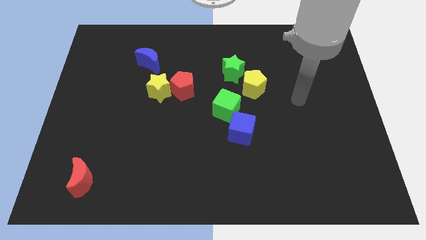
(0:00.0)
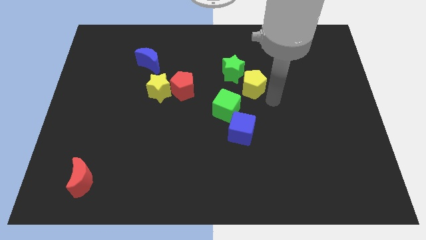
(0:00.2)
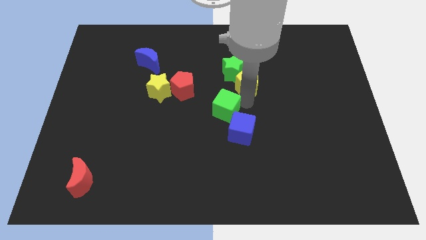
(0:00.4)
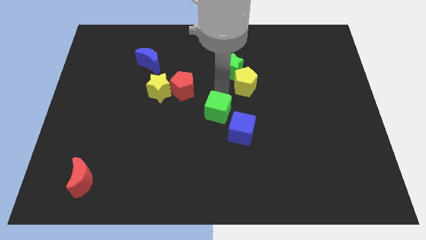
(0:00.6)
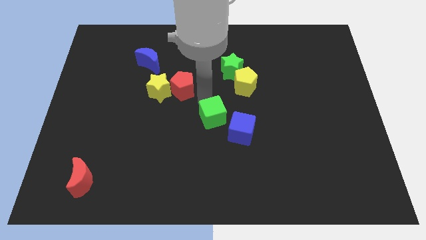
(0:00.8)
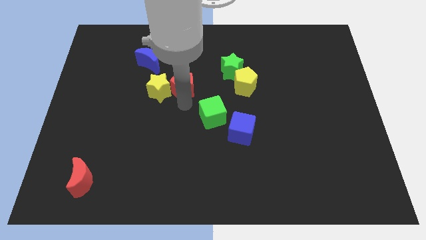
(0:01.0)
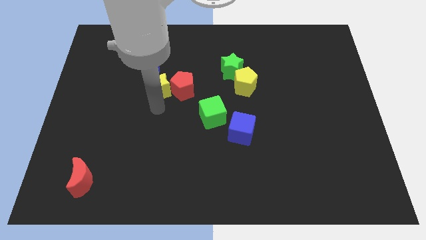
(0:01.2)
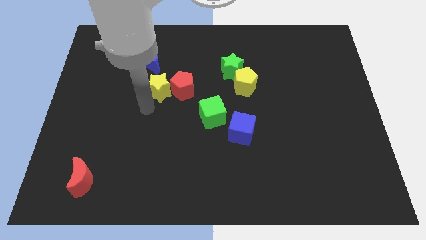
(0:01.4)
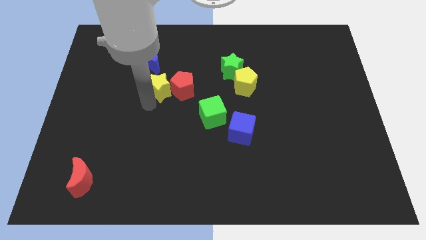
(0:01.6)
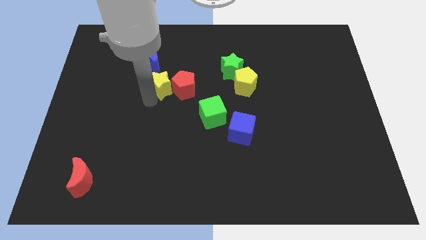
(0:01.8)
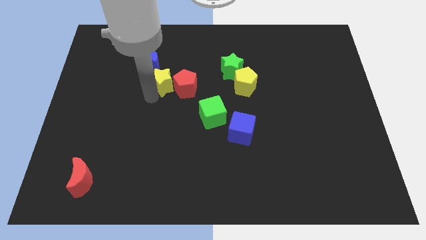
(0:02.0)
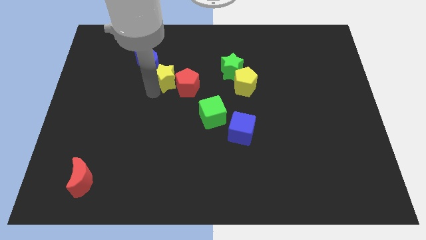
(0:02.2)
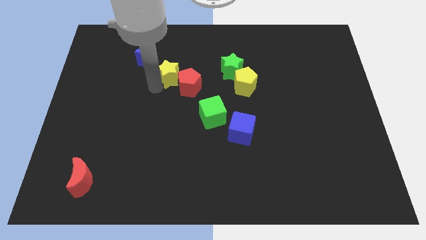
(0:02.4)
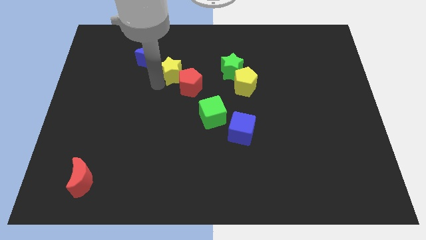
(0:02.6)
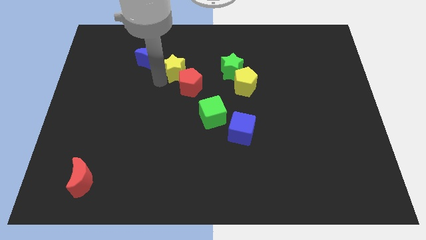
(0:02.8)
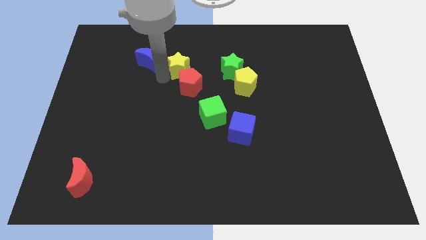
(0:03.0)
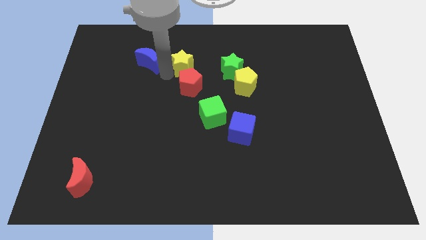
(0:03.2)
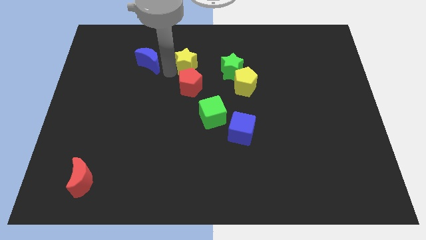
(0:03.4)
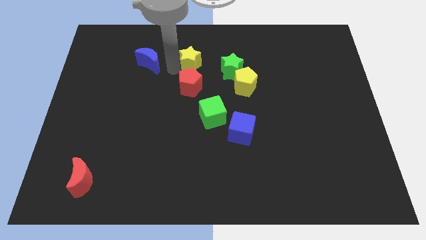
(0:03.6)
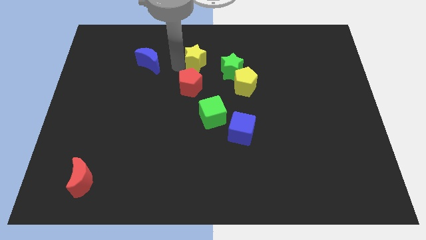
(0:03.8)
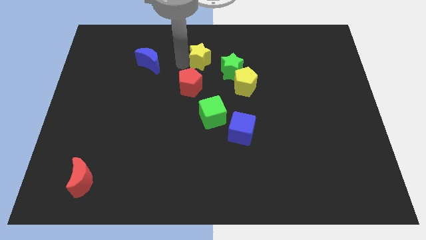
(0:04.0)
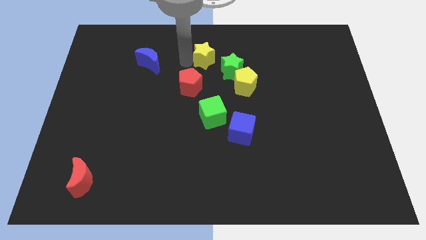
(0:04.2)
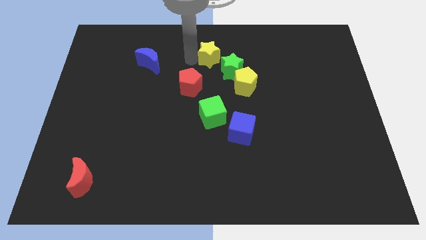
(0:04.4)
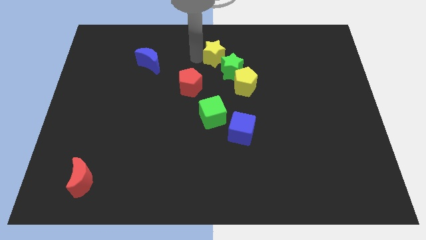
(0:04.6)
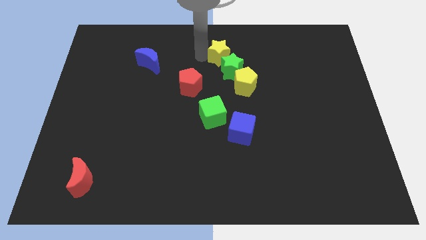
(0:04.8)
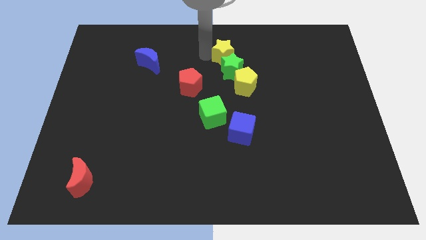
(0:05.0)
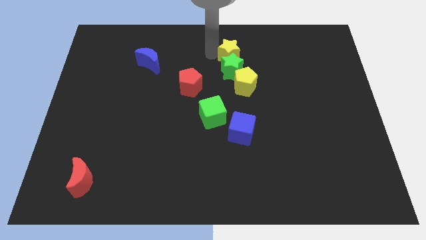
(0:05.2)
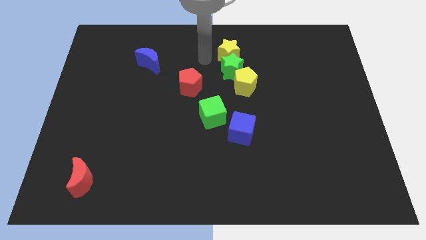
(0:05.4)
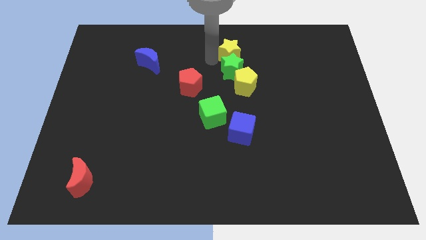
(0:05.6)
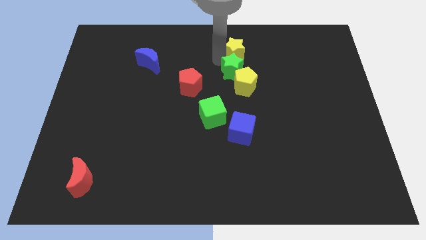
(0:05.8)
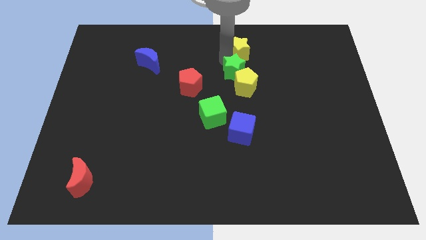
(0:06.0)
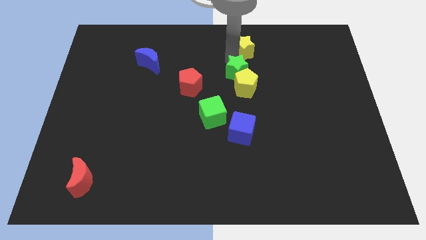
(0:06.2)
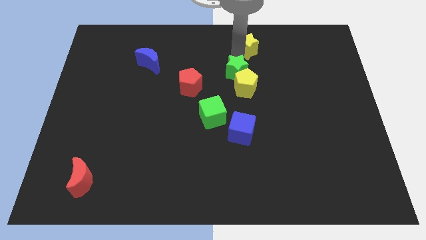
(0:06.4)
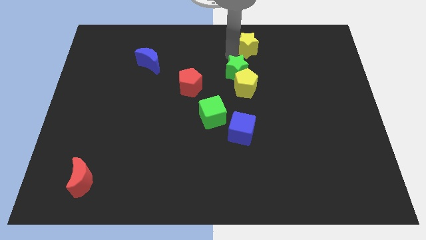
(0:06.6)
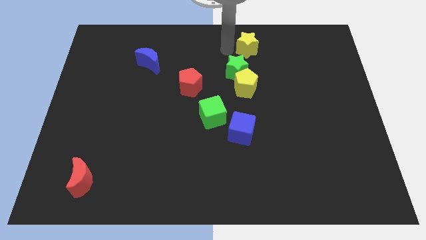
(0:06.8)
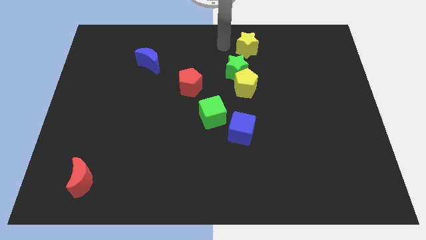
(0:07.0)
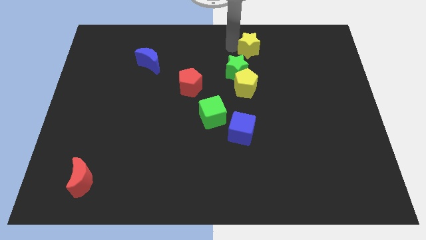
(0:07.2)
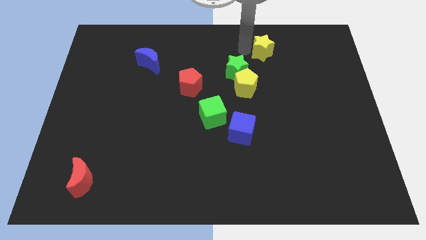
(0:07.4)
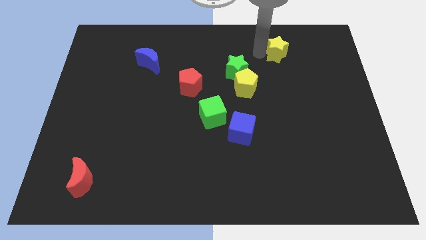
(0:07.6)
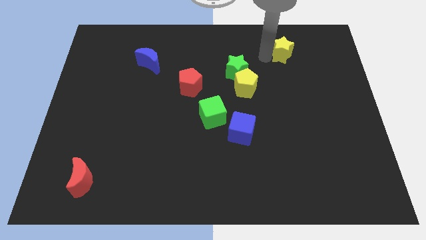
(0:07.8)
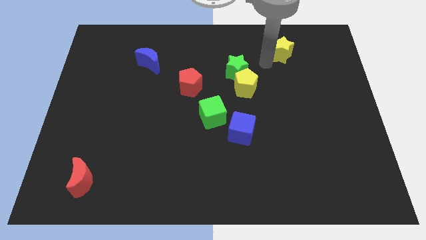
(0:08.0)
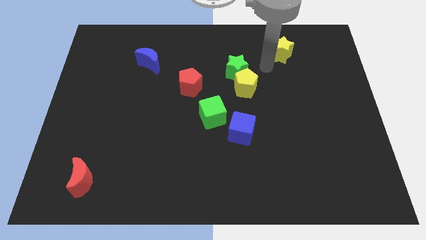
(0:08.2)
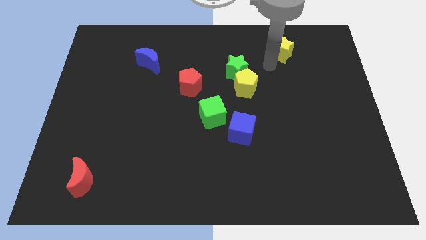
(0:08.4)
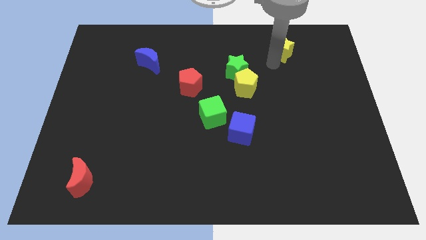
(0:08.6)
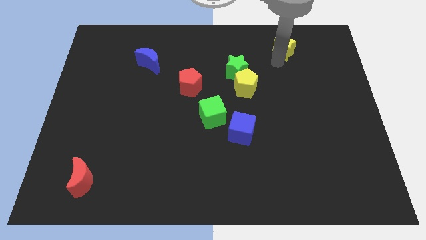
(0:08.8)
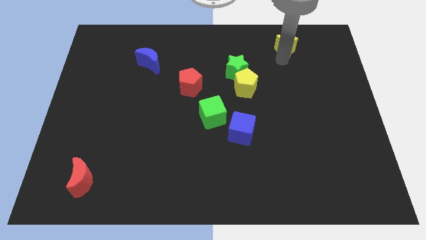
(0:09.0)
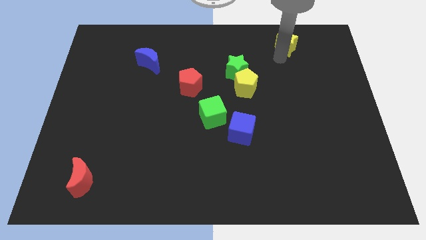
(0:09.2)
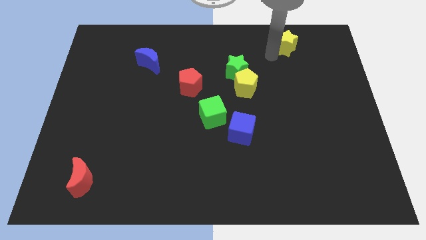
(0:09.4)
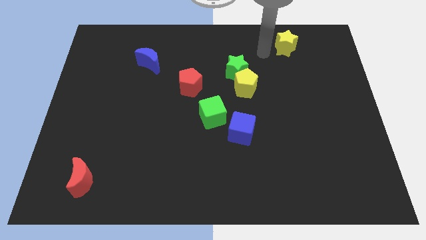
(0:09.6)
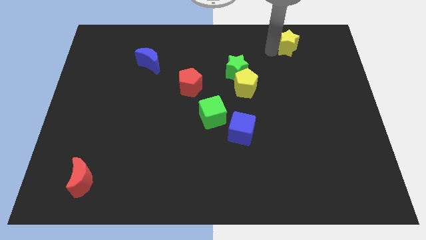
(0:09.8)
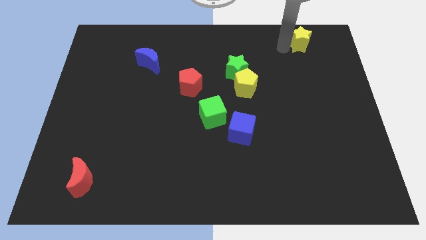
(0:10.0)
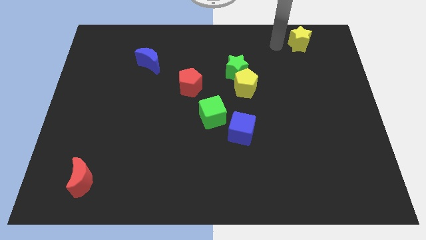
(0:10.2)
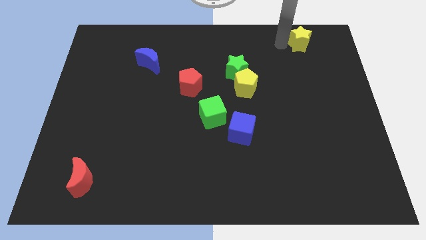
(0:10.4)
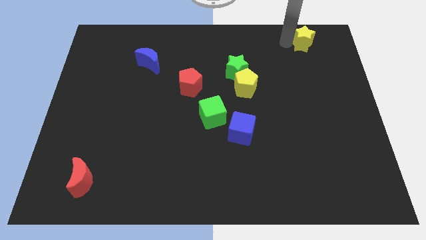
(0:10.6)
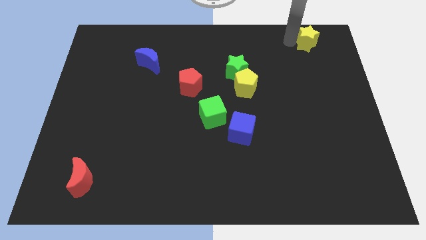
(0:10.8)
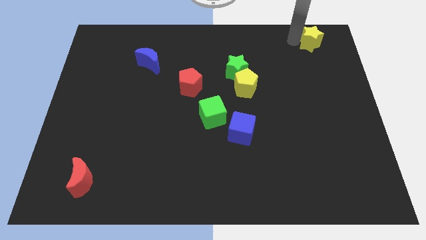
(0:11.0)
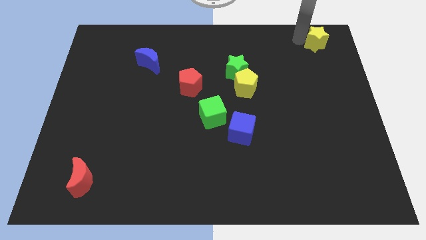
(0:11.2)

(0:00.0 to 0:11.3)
put the yellow star to the top right
